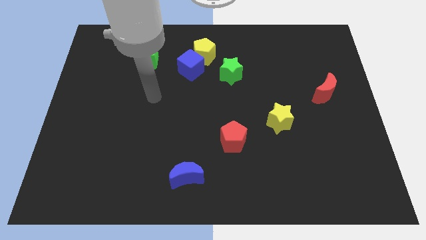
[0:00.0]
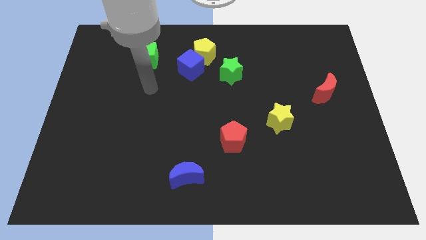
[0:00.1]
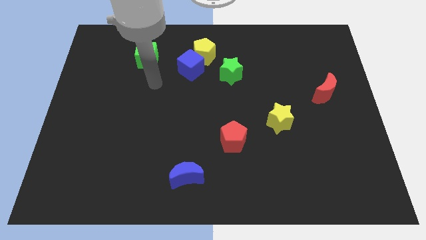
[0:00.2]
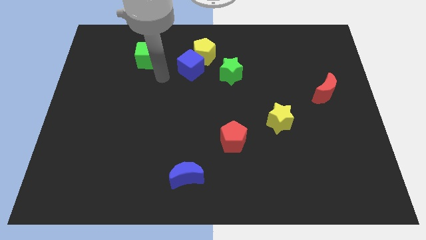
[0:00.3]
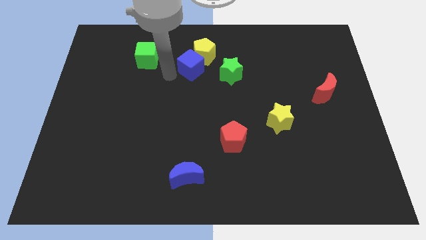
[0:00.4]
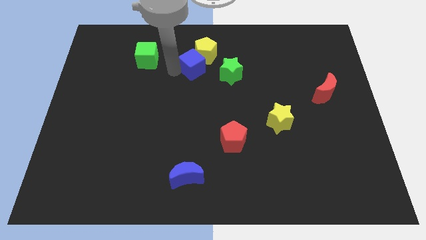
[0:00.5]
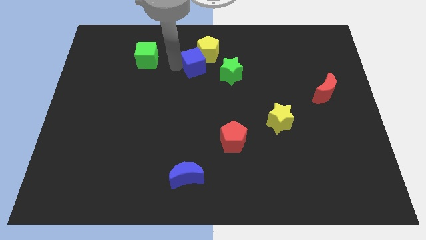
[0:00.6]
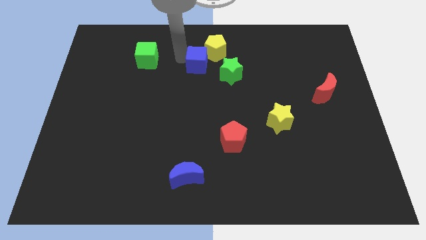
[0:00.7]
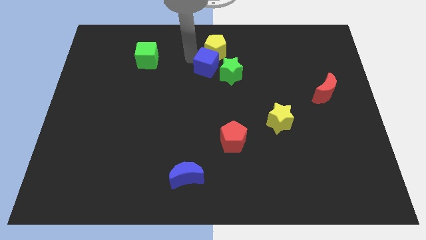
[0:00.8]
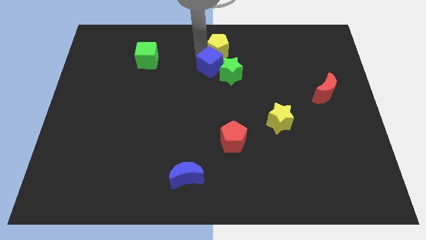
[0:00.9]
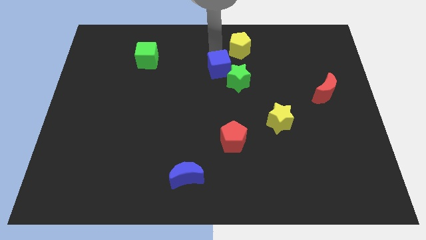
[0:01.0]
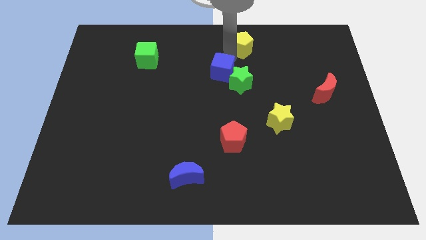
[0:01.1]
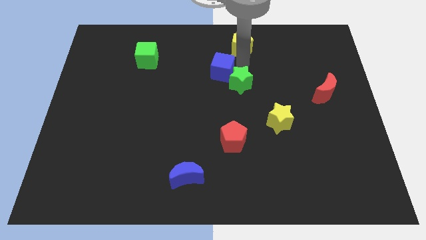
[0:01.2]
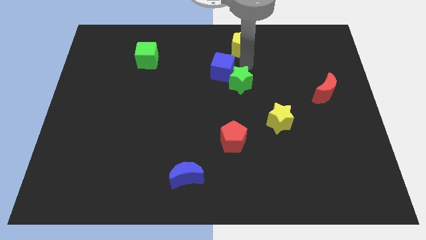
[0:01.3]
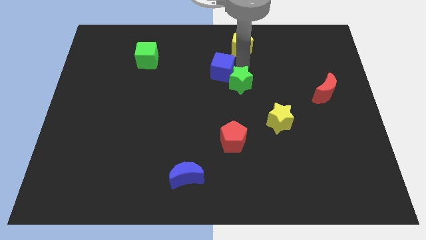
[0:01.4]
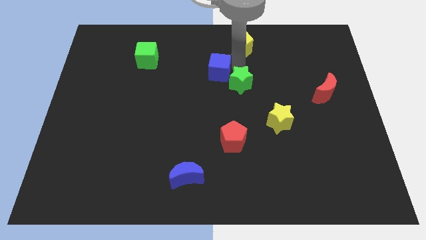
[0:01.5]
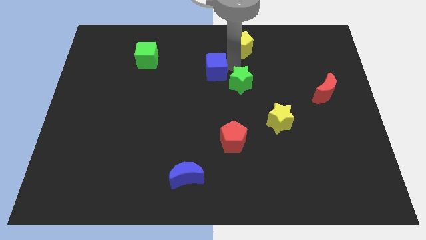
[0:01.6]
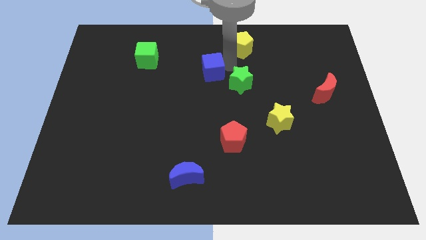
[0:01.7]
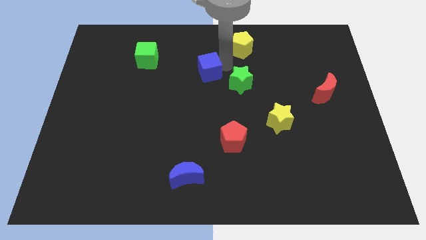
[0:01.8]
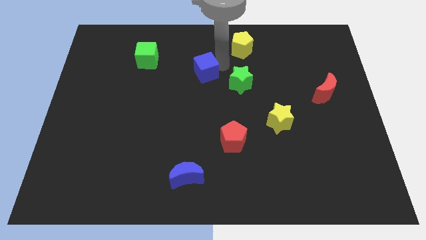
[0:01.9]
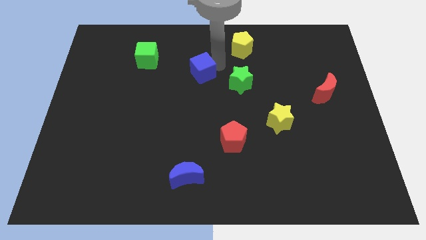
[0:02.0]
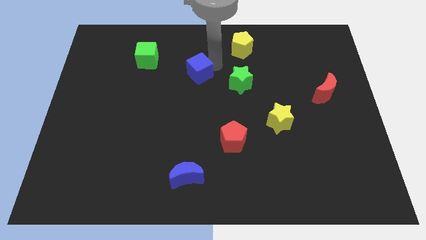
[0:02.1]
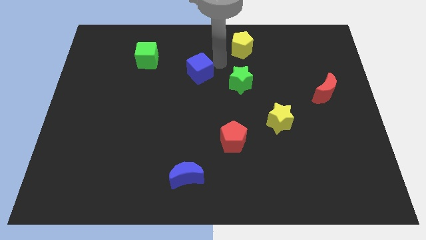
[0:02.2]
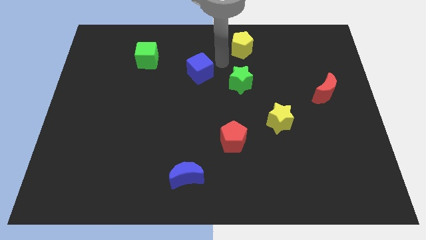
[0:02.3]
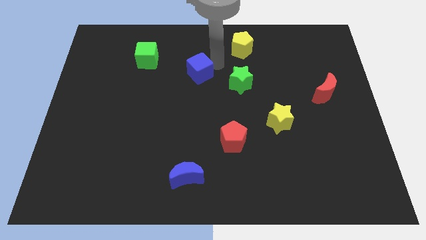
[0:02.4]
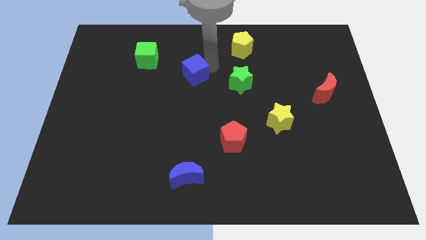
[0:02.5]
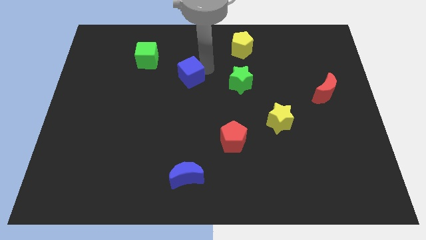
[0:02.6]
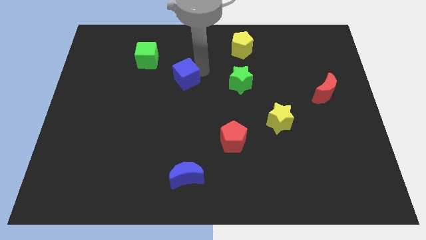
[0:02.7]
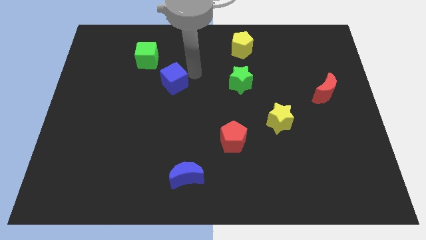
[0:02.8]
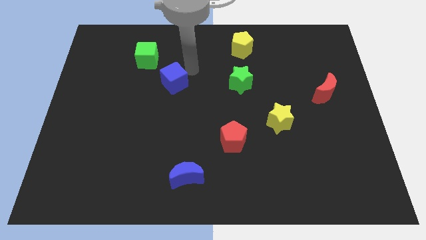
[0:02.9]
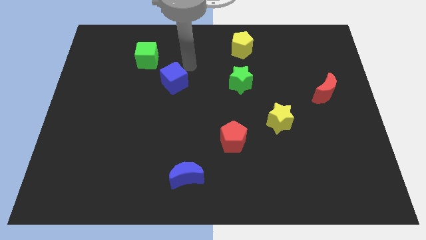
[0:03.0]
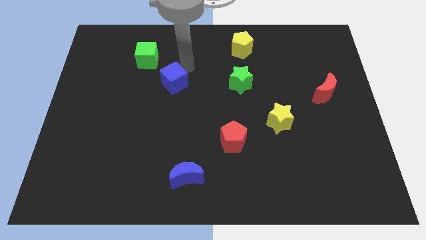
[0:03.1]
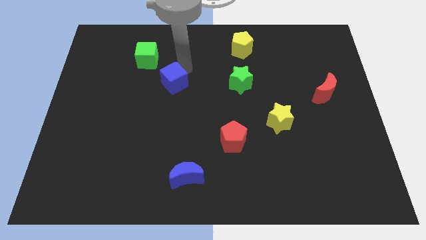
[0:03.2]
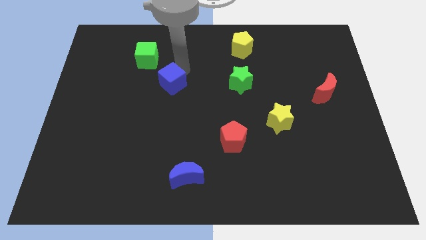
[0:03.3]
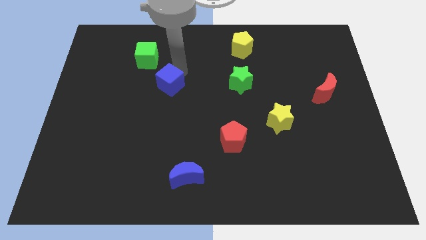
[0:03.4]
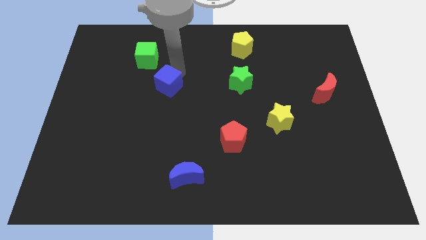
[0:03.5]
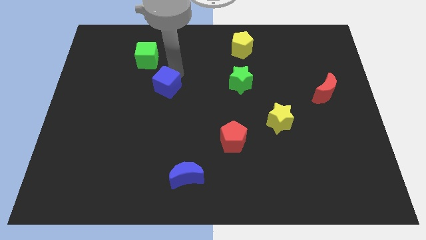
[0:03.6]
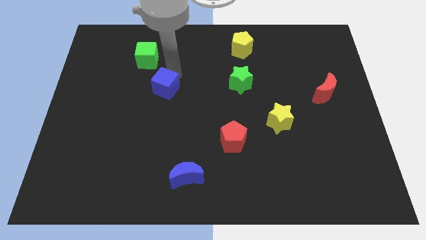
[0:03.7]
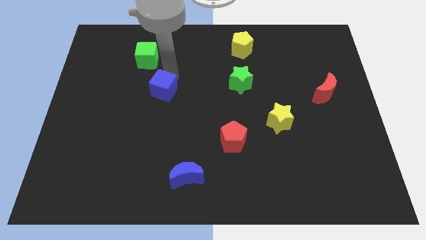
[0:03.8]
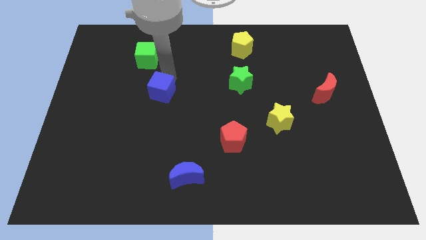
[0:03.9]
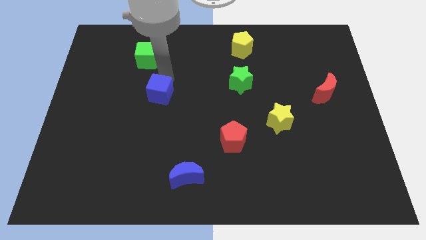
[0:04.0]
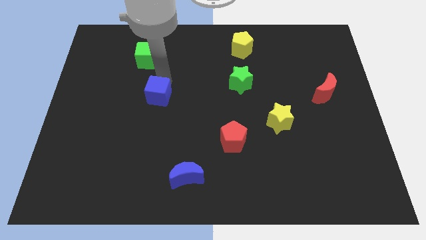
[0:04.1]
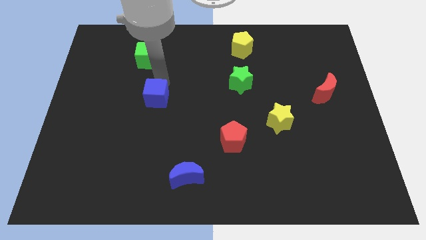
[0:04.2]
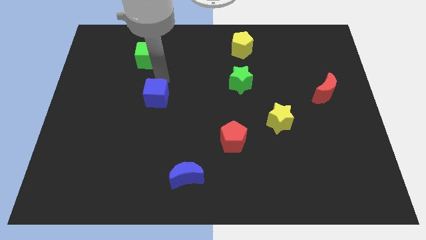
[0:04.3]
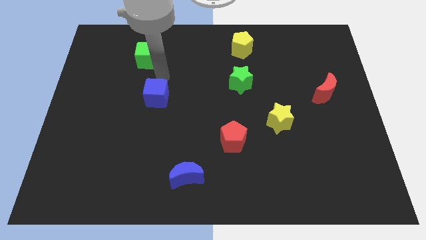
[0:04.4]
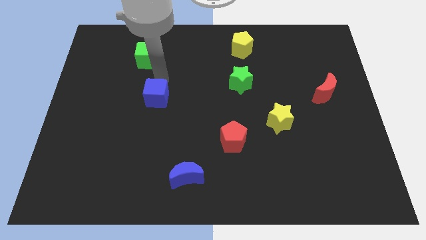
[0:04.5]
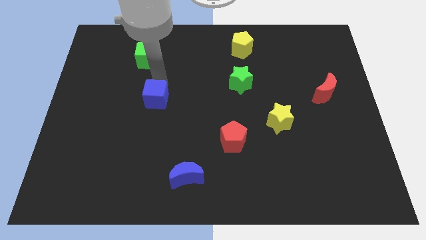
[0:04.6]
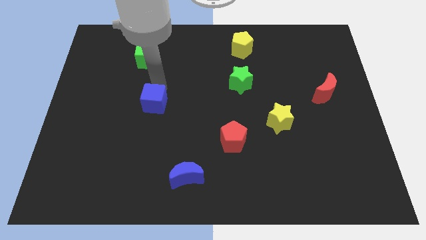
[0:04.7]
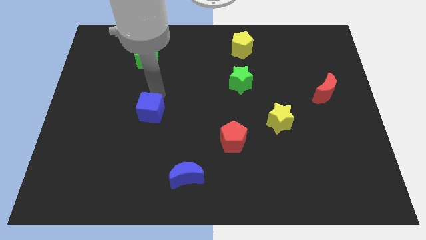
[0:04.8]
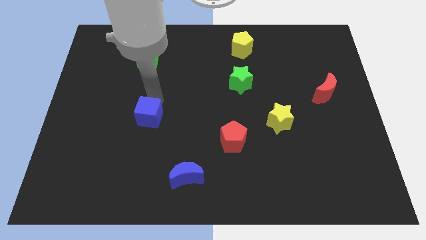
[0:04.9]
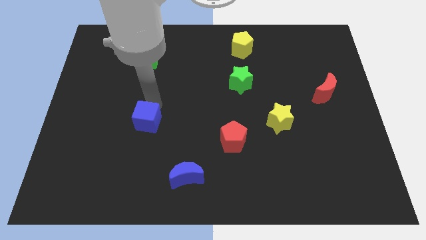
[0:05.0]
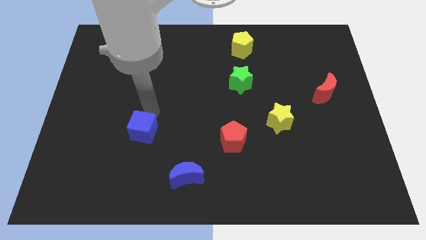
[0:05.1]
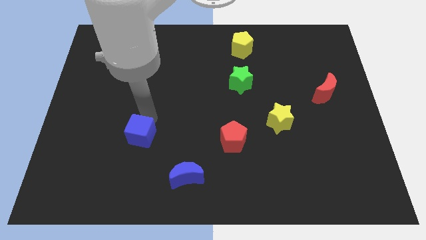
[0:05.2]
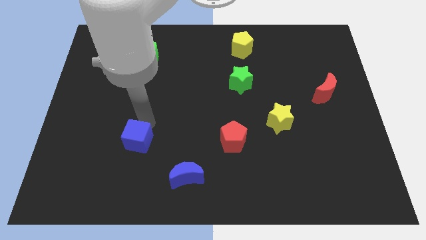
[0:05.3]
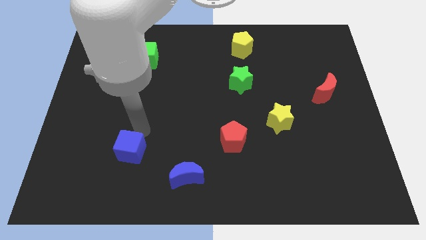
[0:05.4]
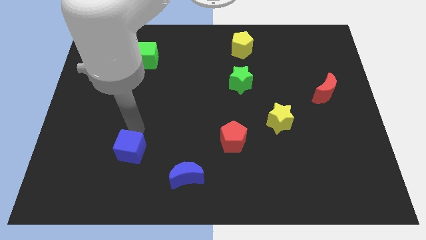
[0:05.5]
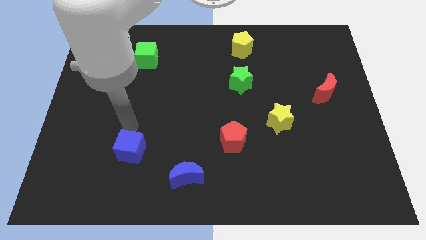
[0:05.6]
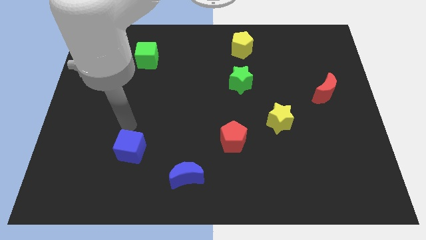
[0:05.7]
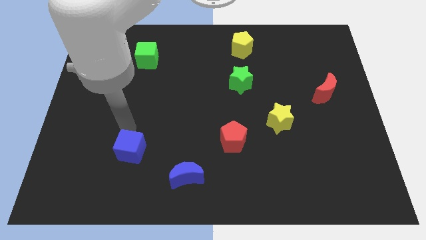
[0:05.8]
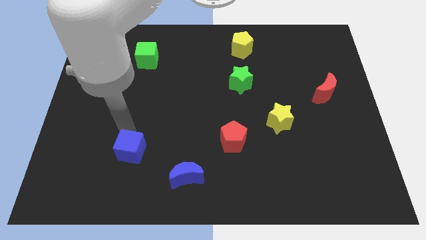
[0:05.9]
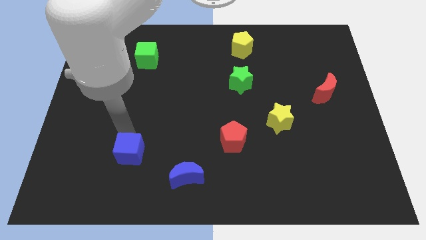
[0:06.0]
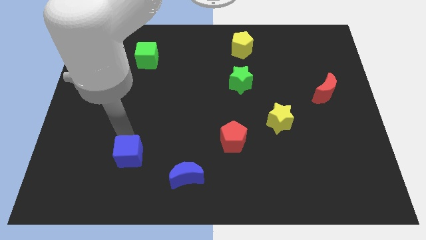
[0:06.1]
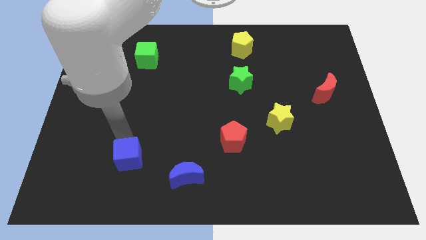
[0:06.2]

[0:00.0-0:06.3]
put the blue cube left of the blue moon

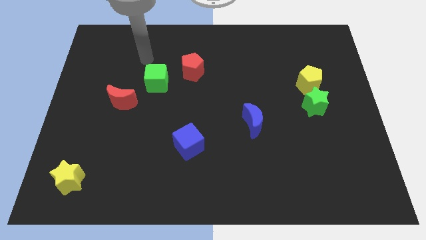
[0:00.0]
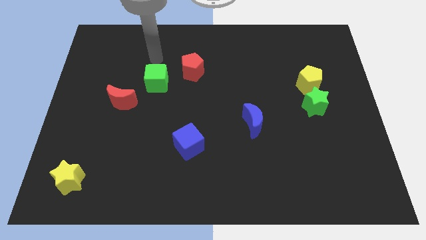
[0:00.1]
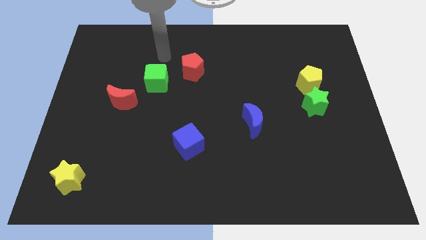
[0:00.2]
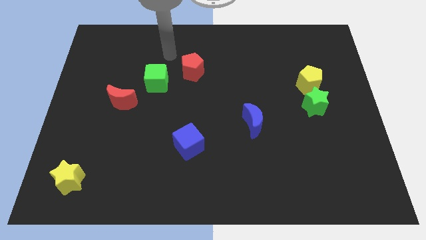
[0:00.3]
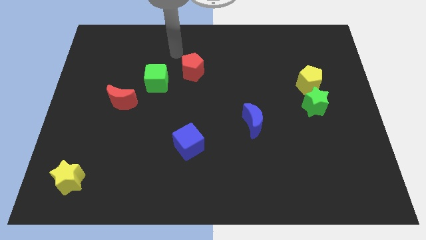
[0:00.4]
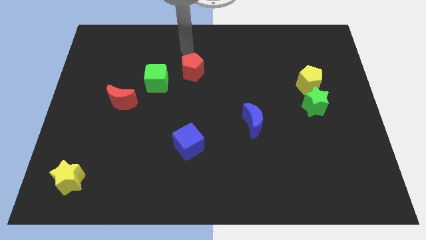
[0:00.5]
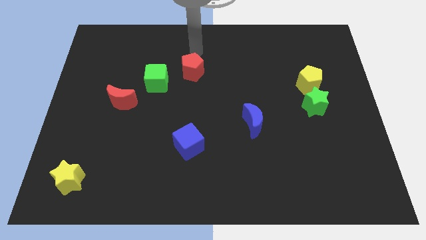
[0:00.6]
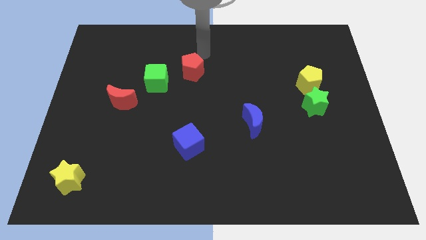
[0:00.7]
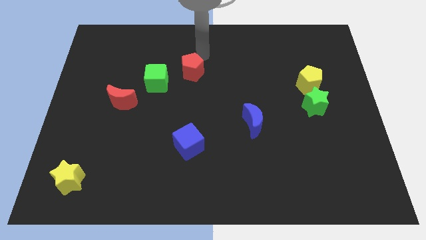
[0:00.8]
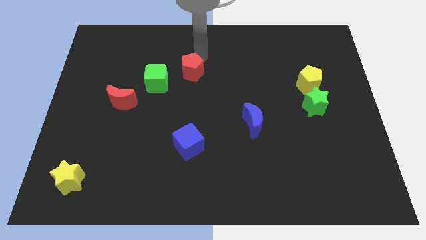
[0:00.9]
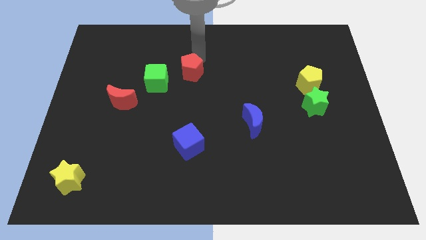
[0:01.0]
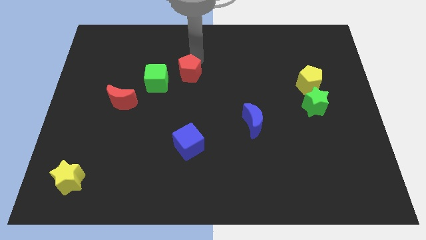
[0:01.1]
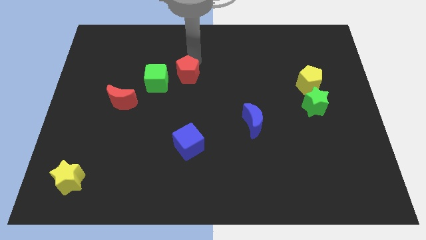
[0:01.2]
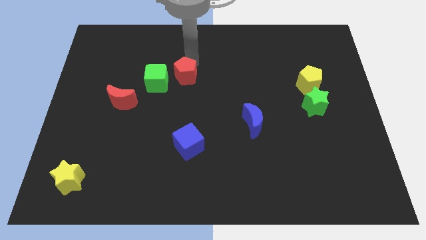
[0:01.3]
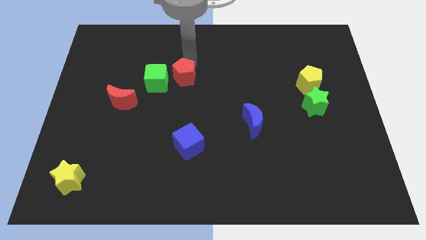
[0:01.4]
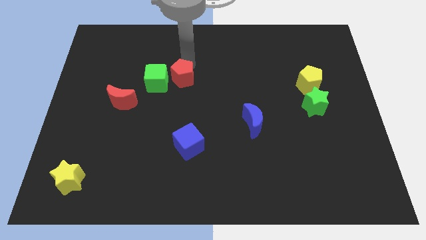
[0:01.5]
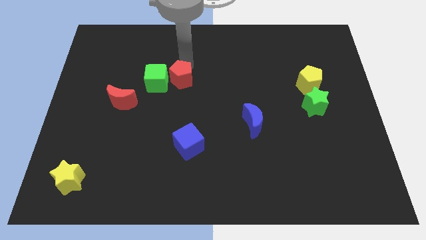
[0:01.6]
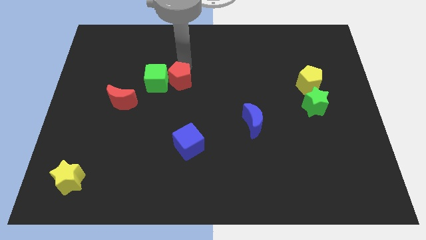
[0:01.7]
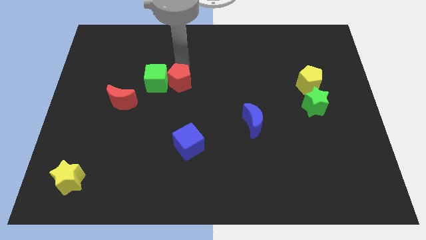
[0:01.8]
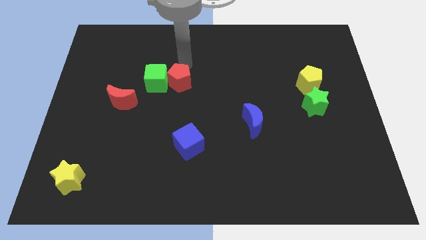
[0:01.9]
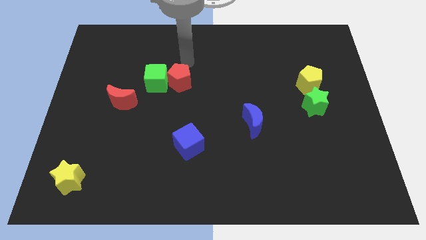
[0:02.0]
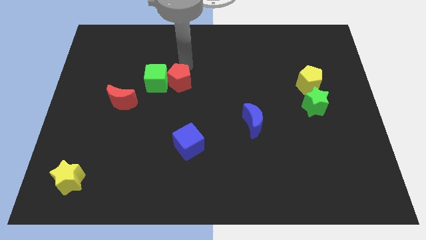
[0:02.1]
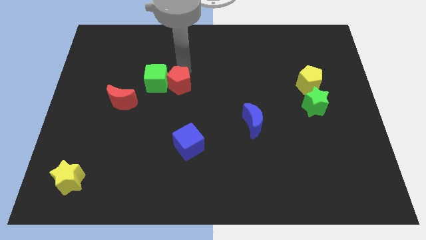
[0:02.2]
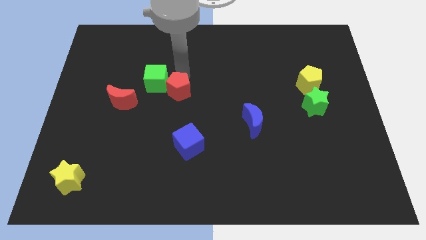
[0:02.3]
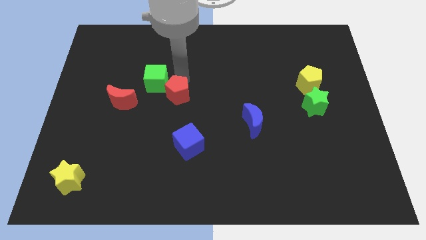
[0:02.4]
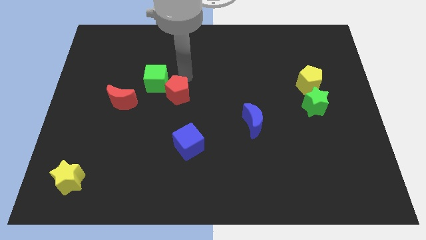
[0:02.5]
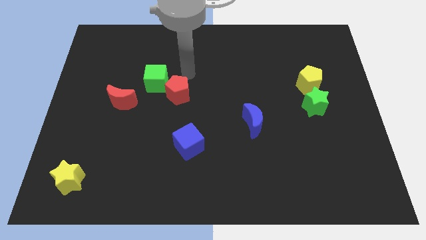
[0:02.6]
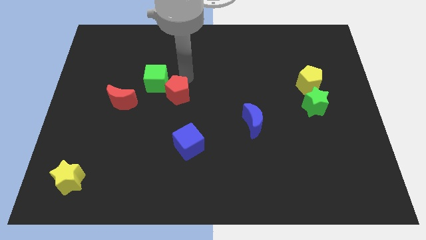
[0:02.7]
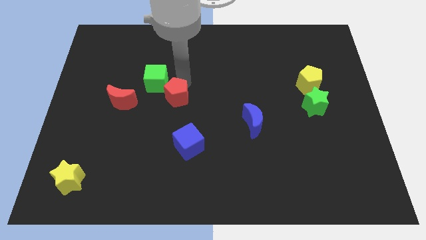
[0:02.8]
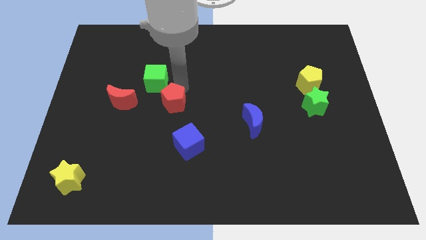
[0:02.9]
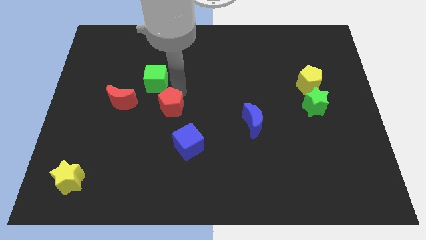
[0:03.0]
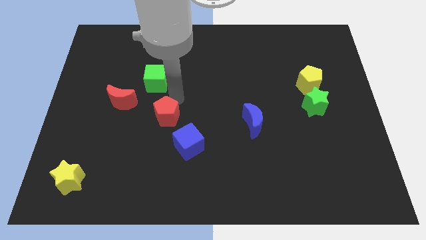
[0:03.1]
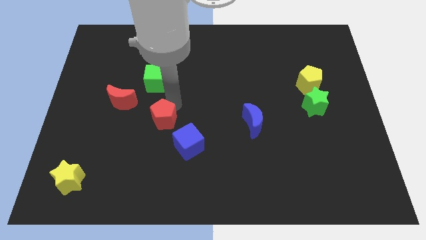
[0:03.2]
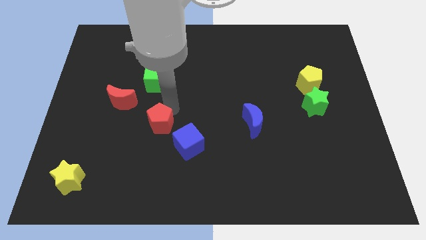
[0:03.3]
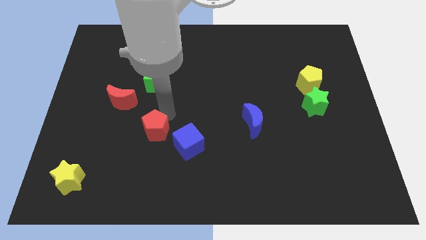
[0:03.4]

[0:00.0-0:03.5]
push the red pentagon to the left of the blue cube
